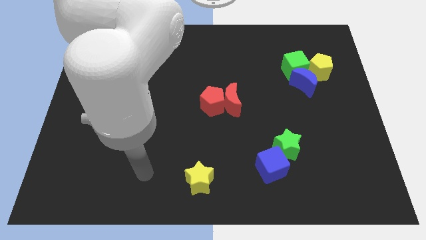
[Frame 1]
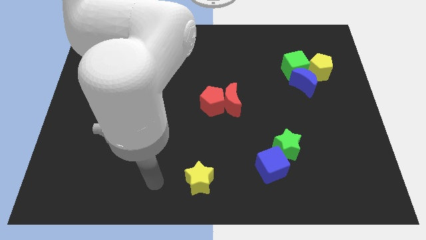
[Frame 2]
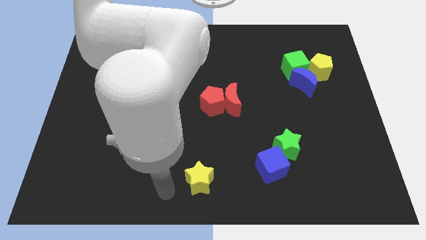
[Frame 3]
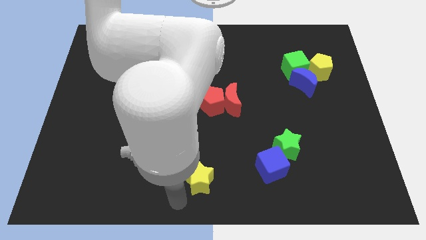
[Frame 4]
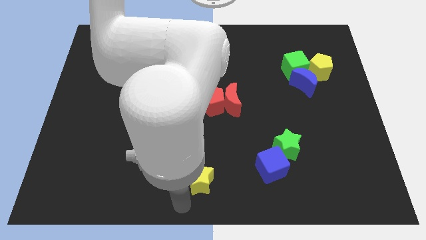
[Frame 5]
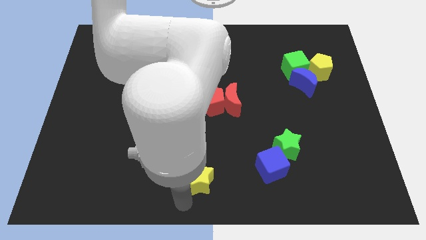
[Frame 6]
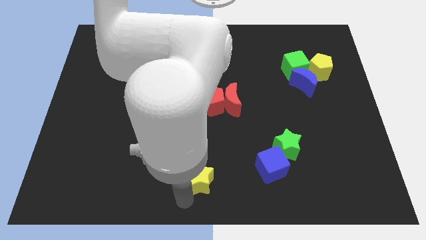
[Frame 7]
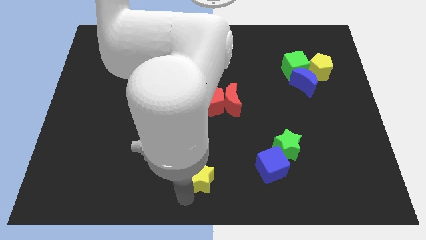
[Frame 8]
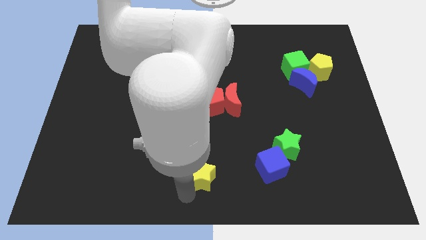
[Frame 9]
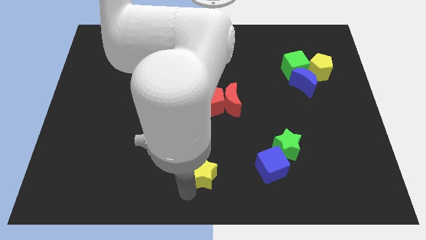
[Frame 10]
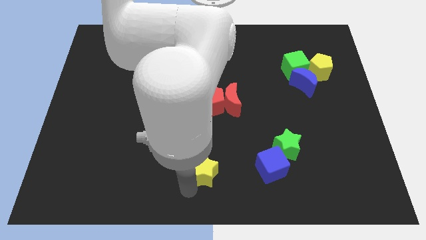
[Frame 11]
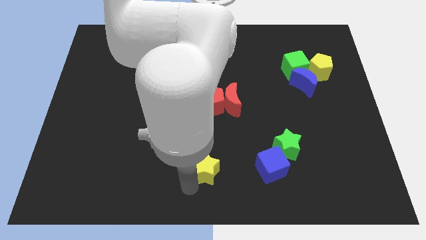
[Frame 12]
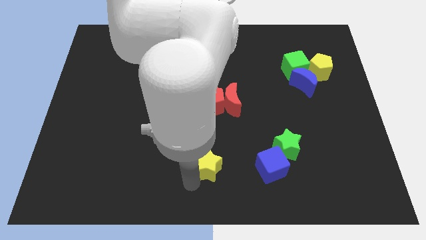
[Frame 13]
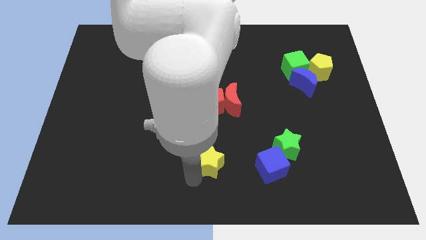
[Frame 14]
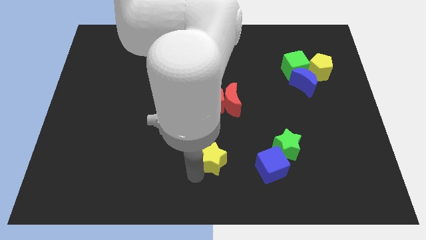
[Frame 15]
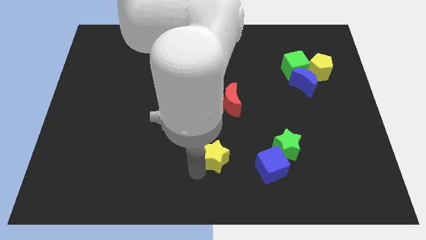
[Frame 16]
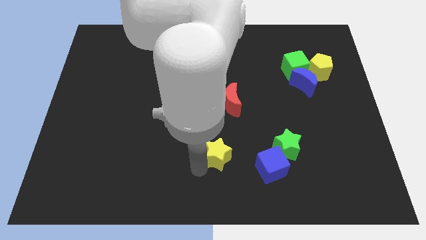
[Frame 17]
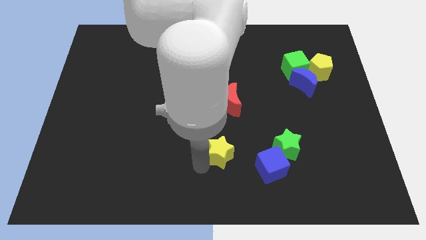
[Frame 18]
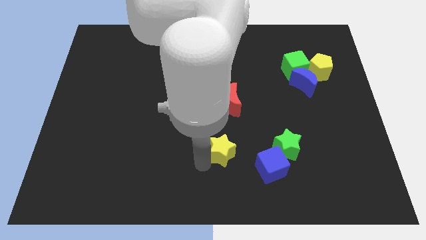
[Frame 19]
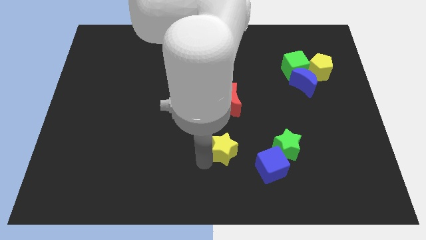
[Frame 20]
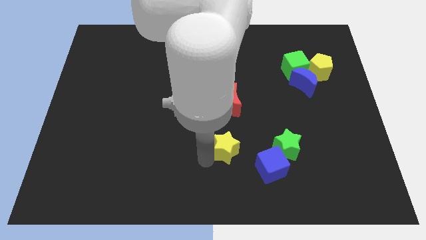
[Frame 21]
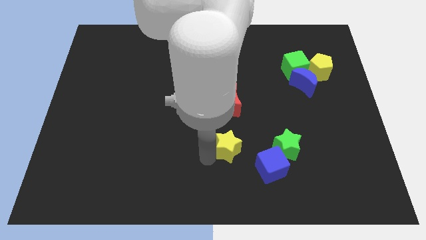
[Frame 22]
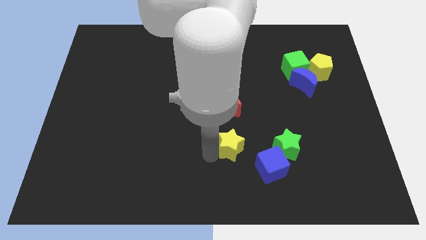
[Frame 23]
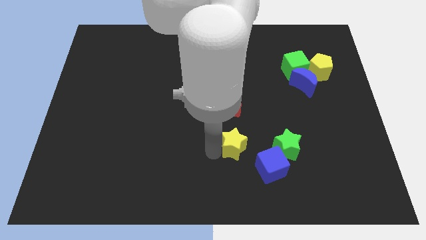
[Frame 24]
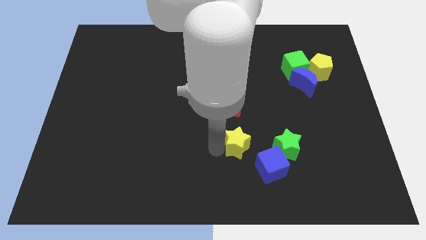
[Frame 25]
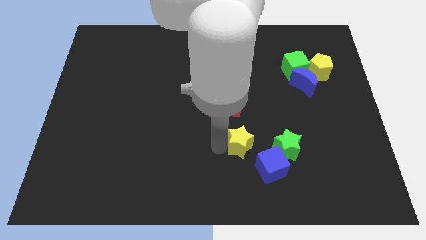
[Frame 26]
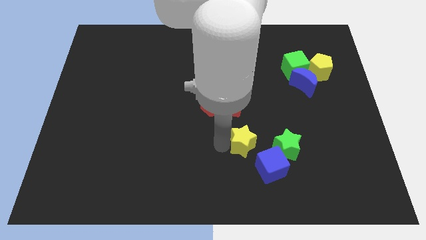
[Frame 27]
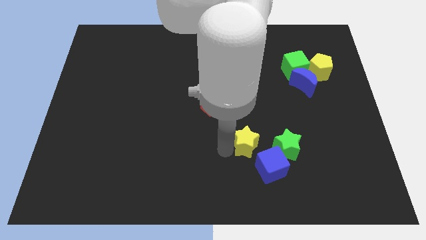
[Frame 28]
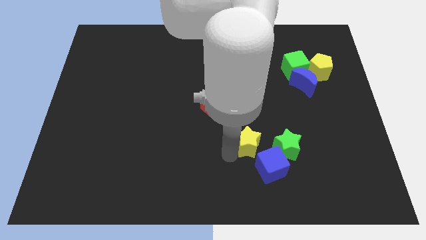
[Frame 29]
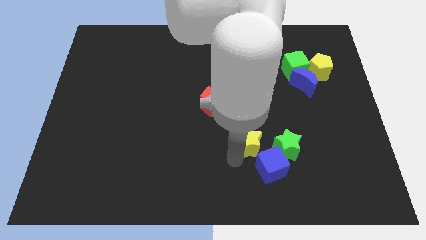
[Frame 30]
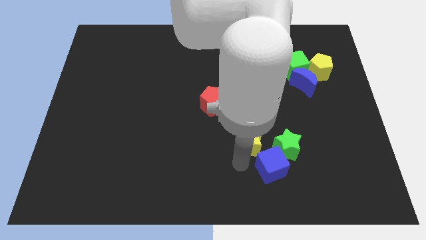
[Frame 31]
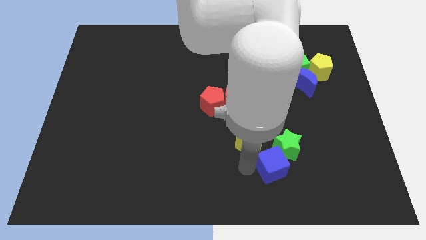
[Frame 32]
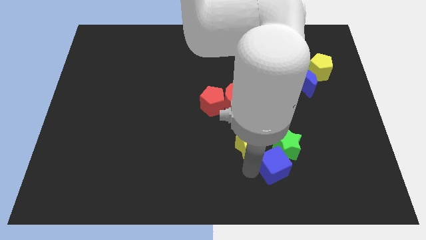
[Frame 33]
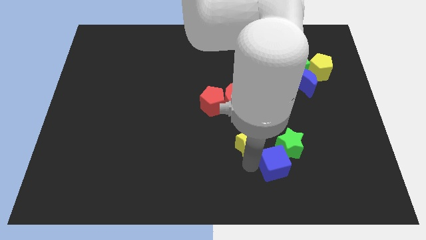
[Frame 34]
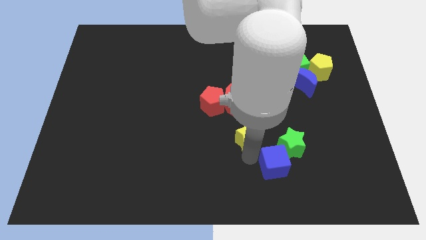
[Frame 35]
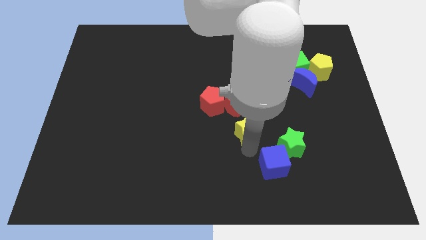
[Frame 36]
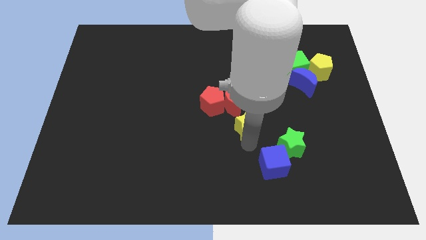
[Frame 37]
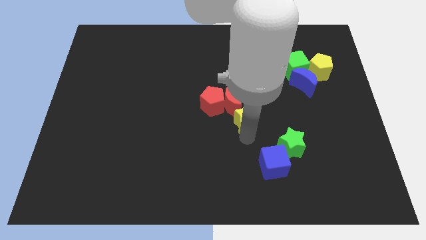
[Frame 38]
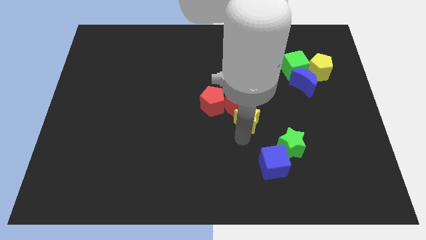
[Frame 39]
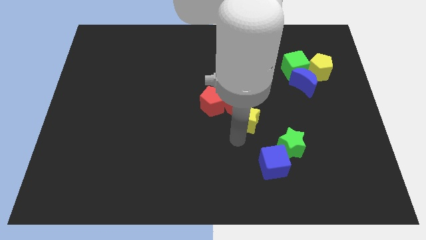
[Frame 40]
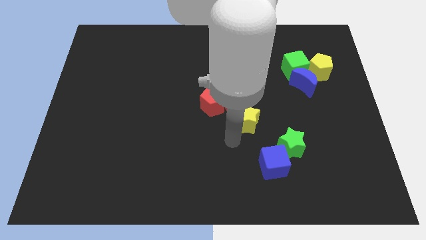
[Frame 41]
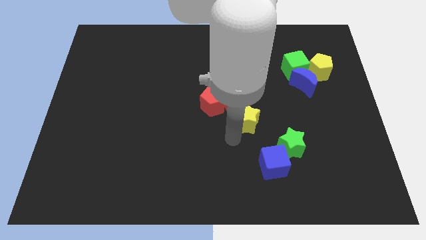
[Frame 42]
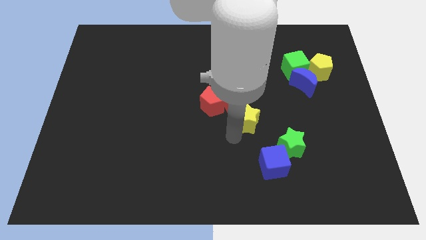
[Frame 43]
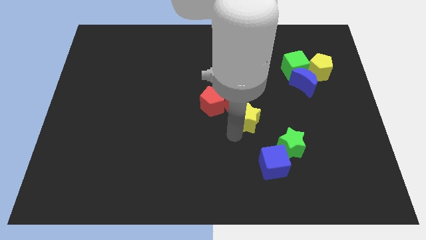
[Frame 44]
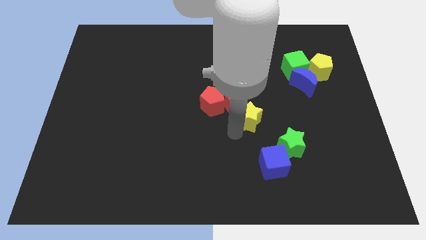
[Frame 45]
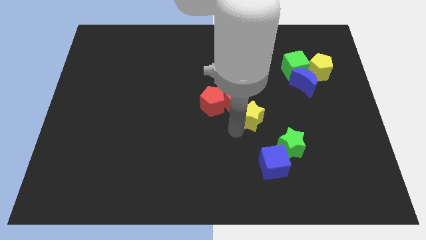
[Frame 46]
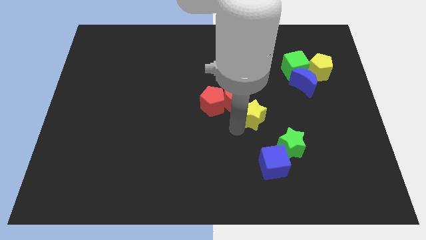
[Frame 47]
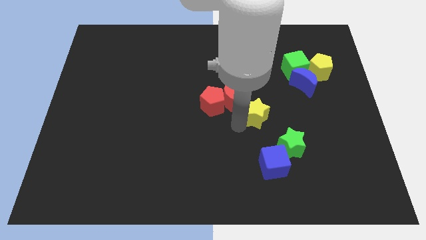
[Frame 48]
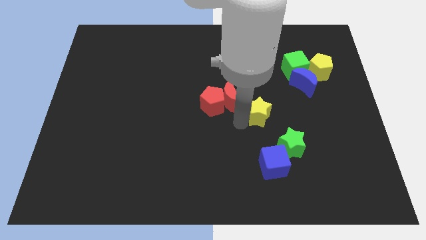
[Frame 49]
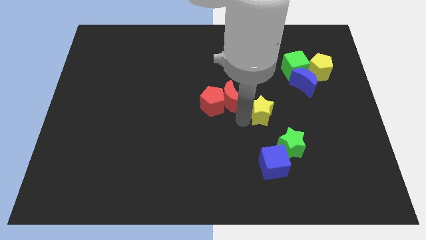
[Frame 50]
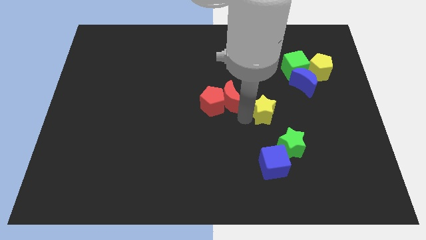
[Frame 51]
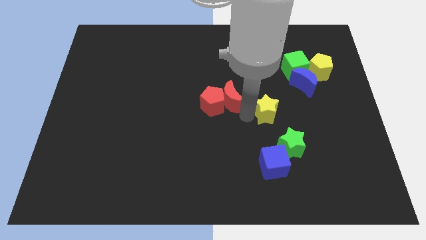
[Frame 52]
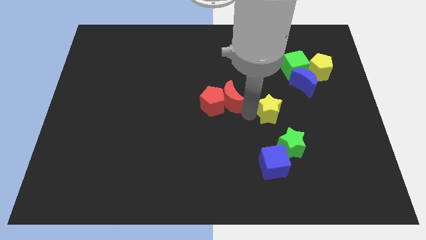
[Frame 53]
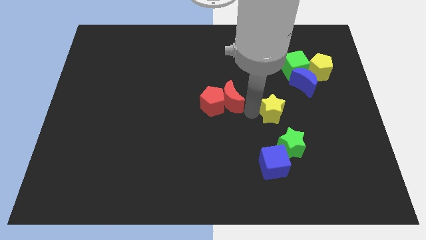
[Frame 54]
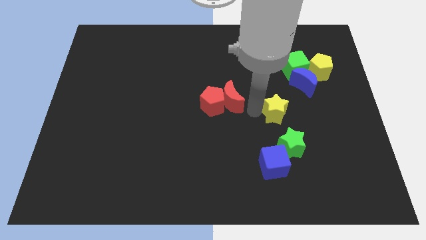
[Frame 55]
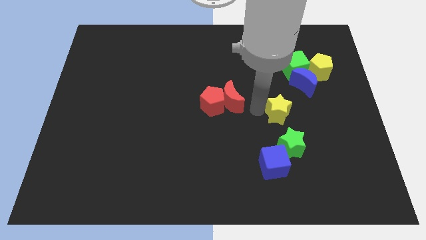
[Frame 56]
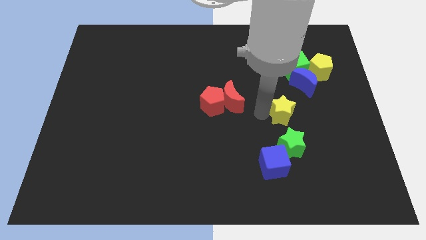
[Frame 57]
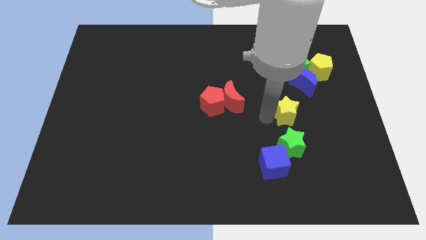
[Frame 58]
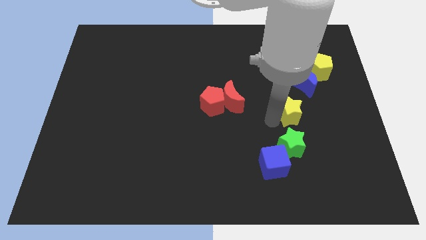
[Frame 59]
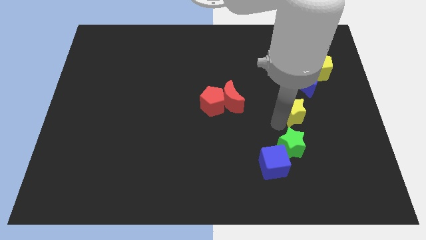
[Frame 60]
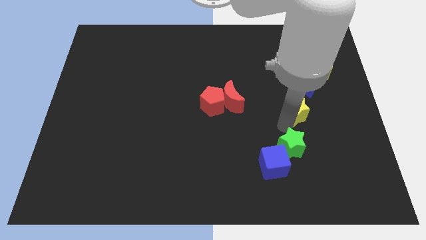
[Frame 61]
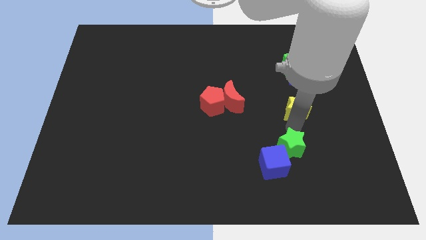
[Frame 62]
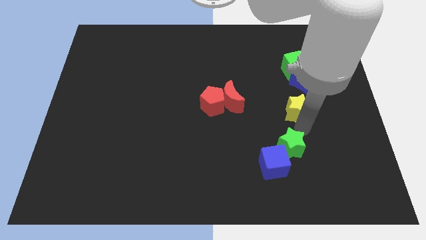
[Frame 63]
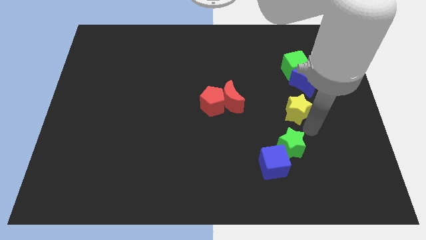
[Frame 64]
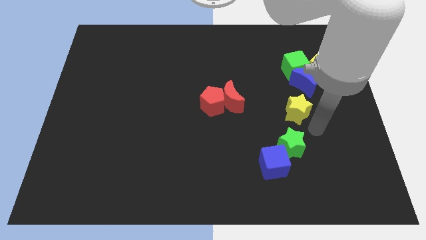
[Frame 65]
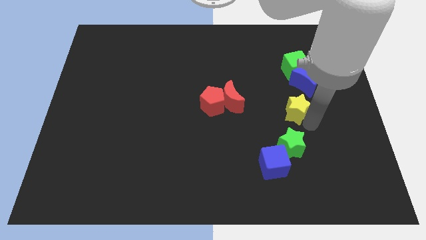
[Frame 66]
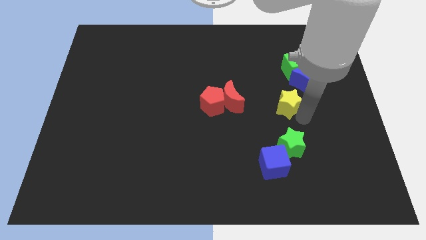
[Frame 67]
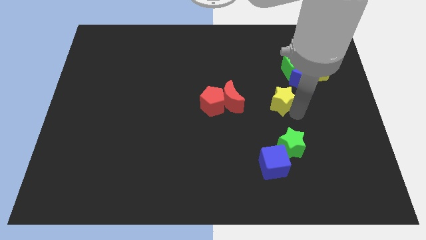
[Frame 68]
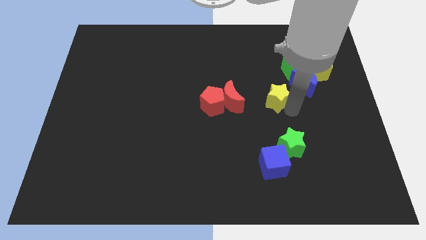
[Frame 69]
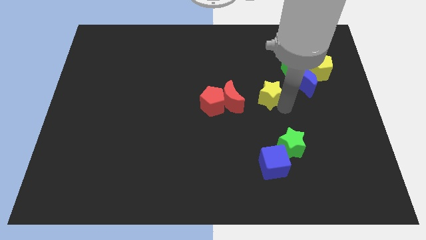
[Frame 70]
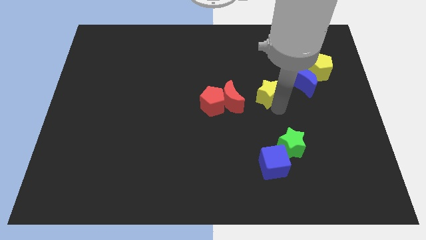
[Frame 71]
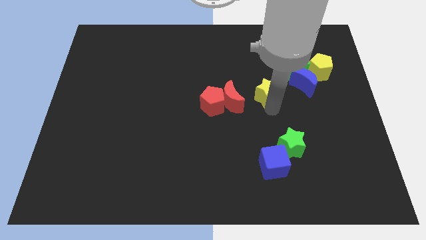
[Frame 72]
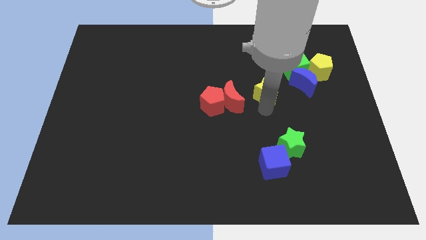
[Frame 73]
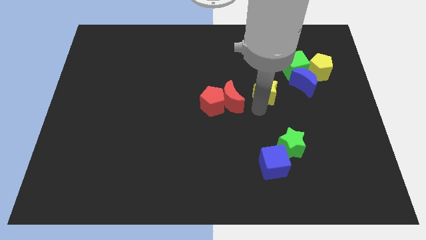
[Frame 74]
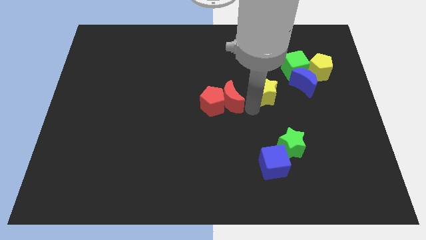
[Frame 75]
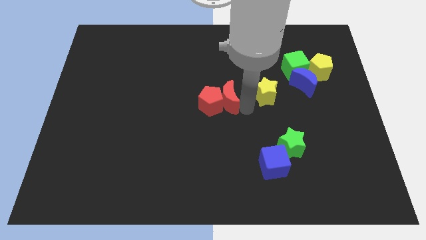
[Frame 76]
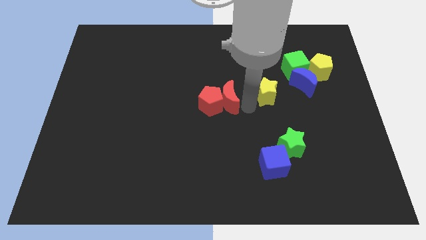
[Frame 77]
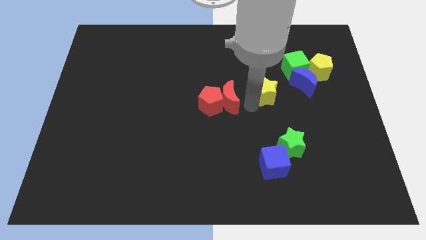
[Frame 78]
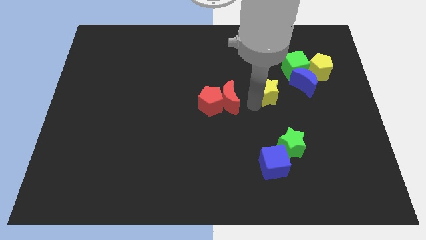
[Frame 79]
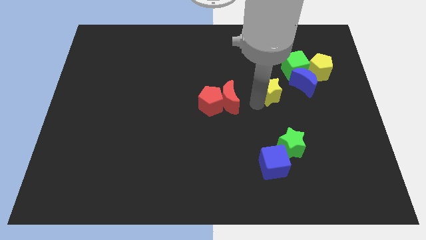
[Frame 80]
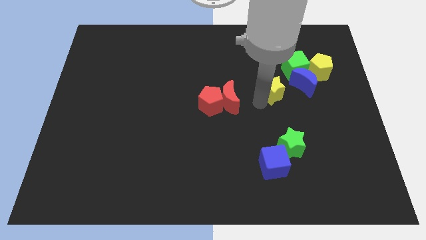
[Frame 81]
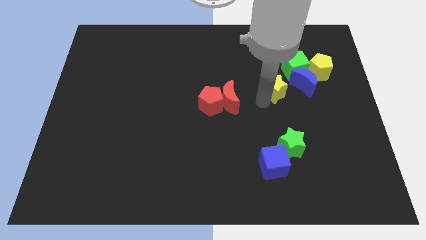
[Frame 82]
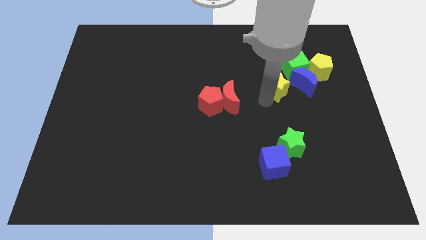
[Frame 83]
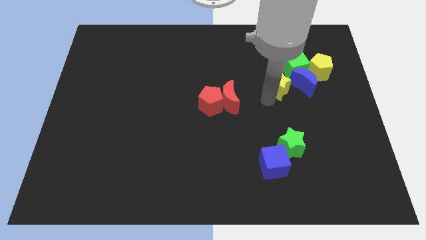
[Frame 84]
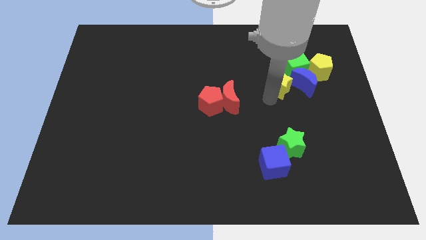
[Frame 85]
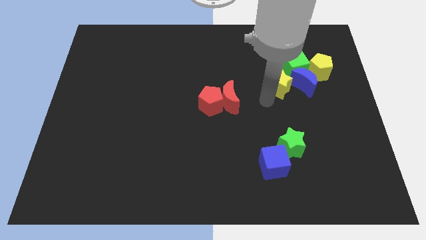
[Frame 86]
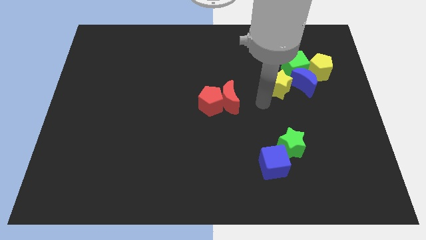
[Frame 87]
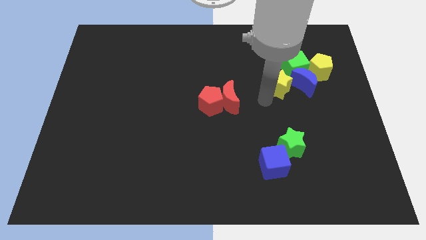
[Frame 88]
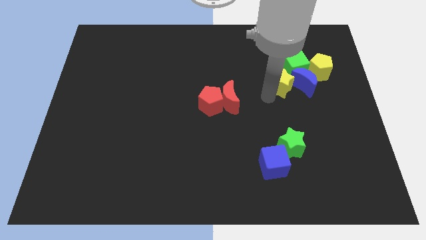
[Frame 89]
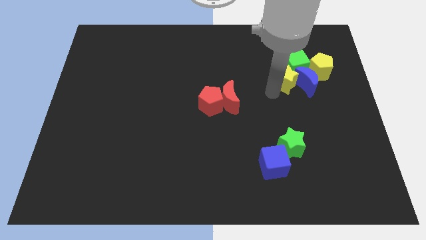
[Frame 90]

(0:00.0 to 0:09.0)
move the yellow star close to the green cube
